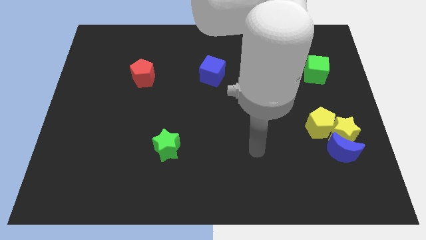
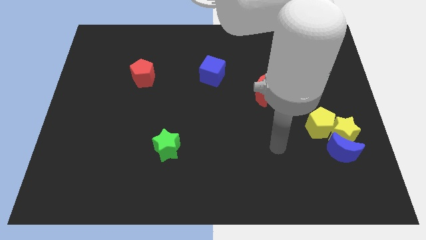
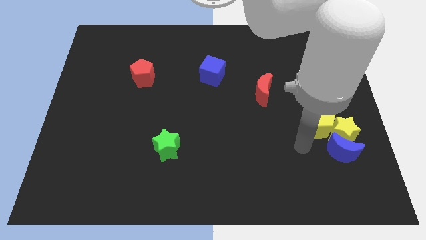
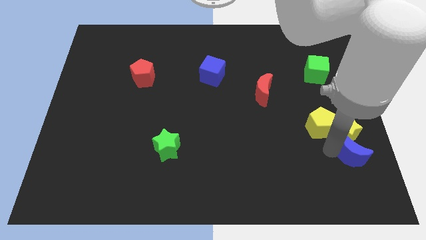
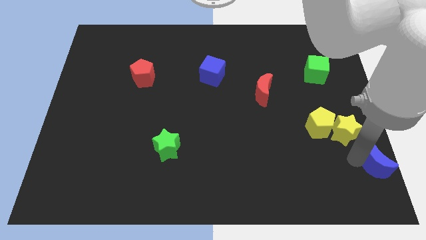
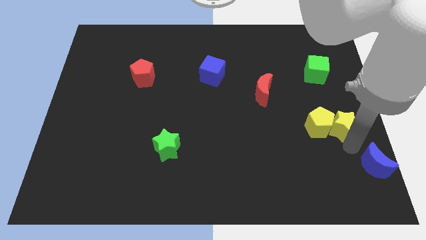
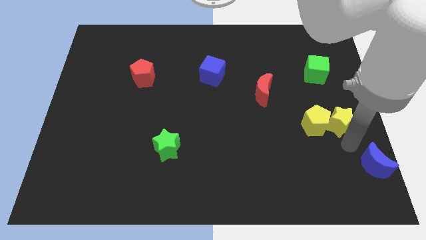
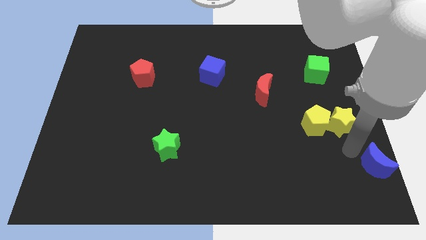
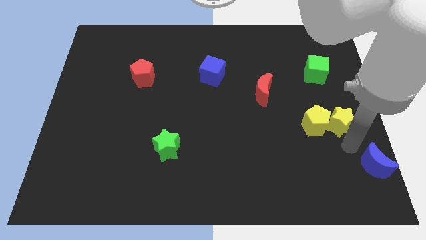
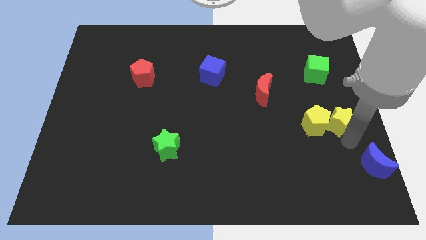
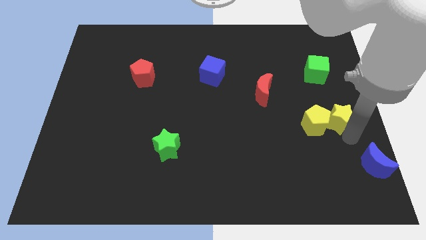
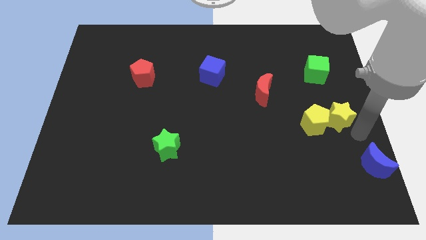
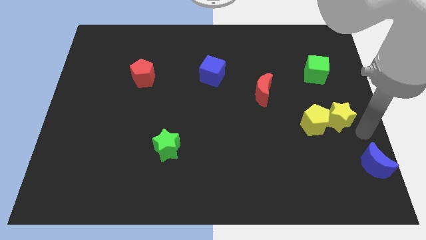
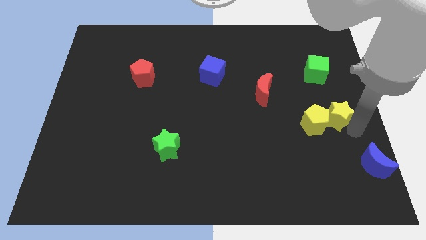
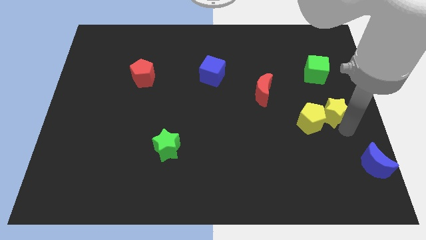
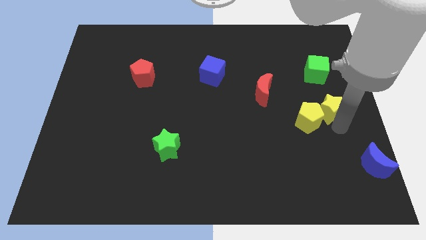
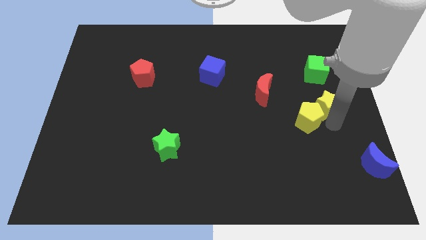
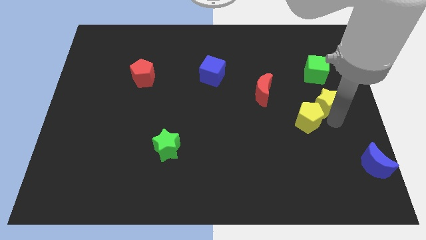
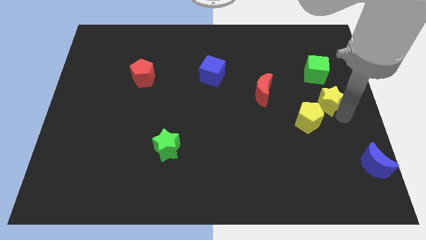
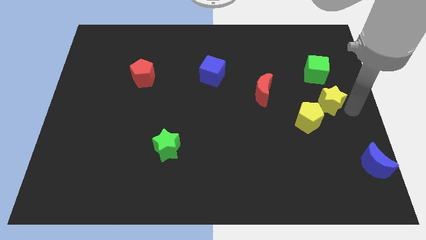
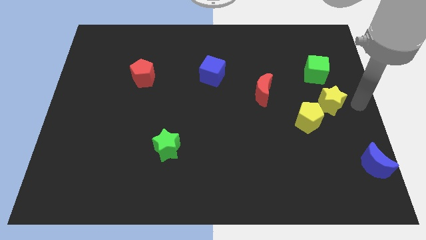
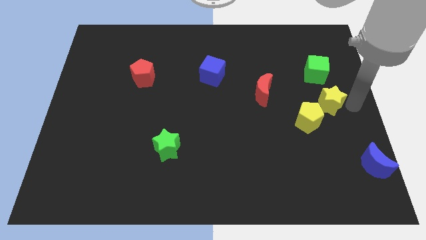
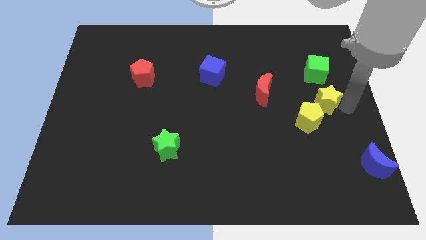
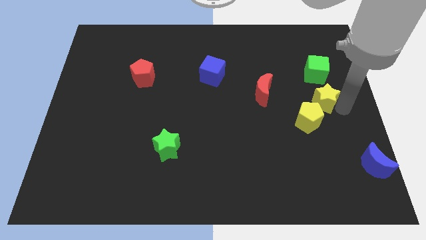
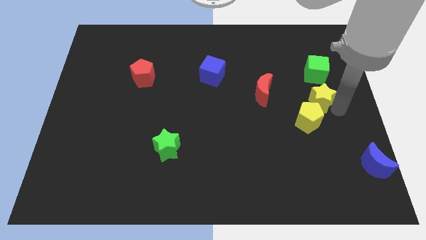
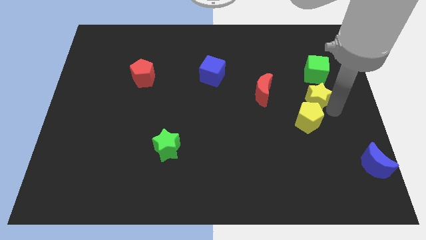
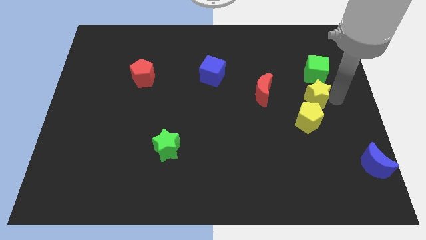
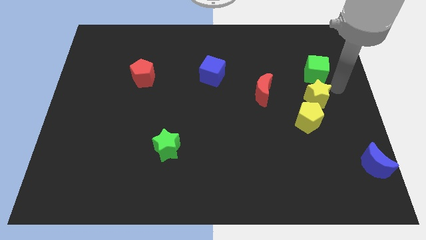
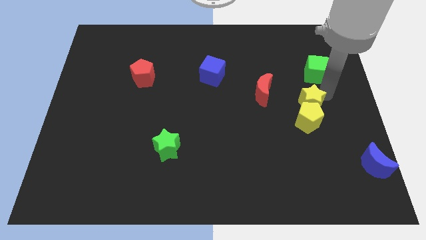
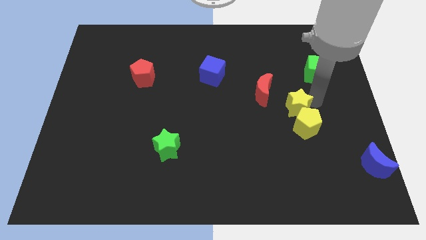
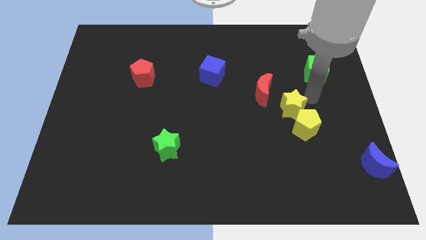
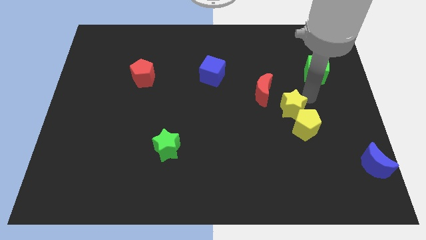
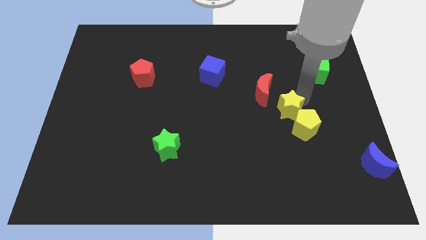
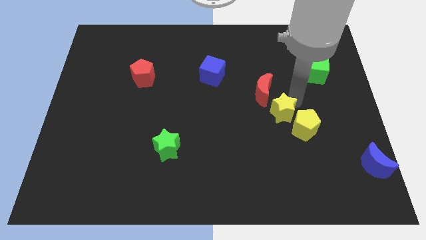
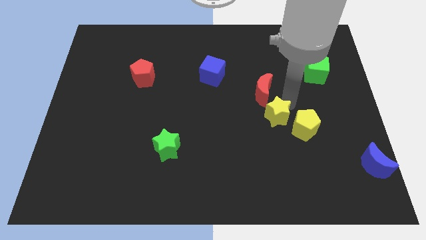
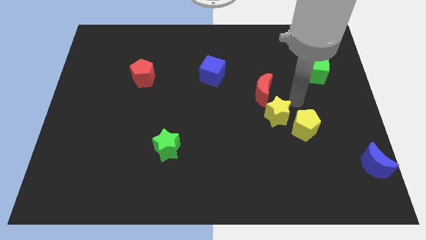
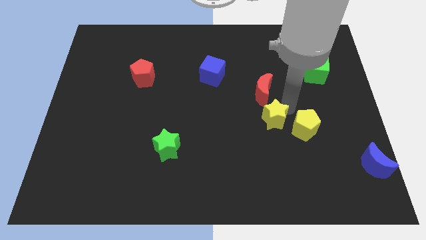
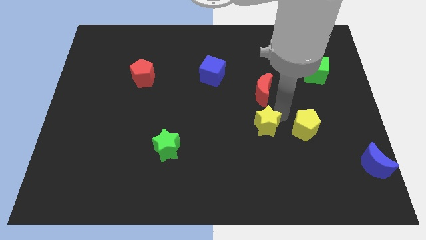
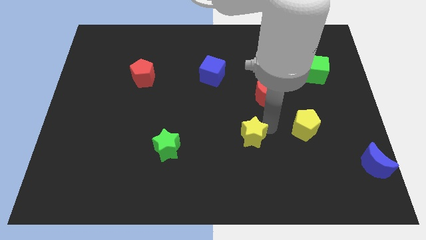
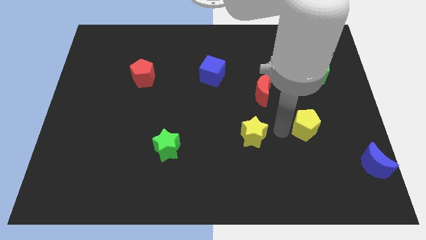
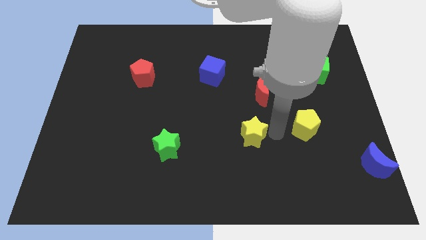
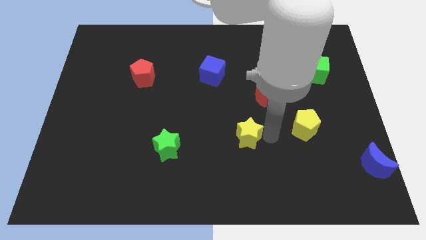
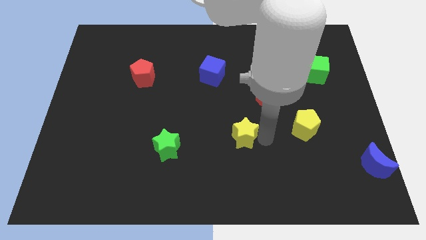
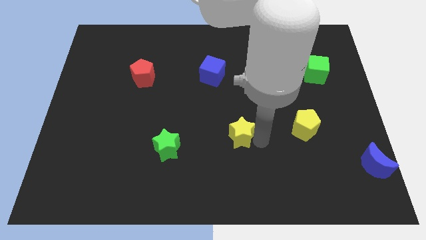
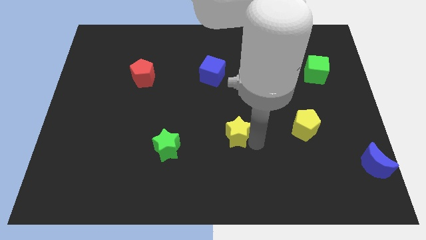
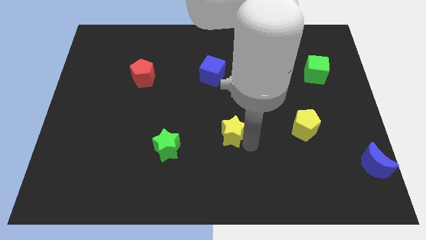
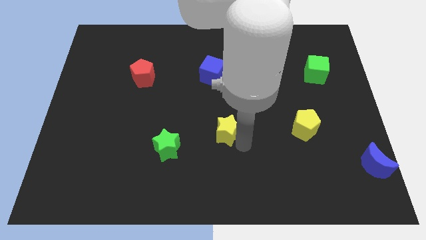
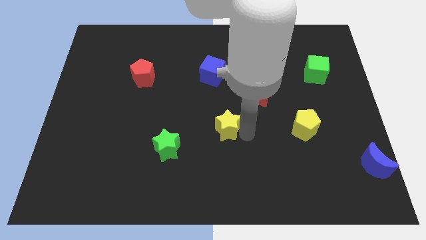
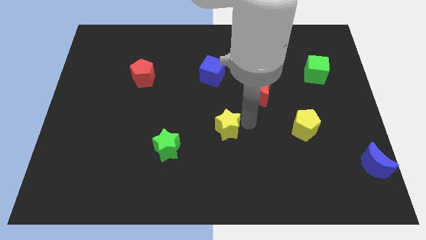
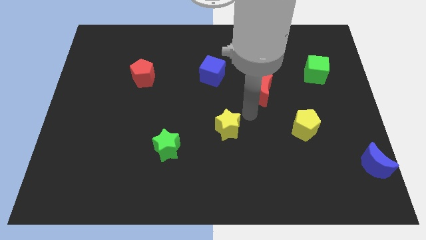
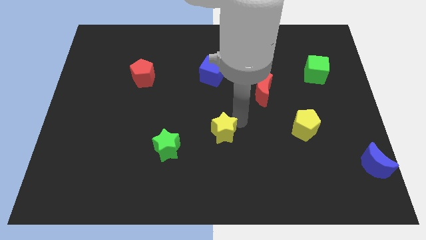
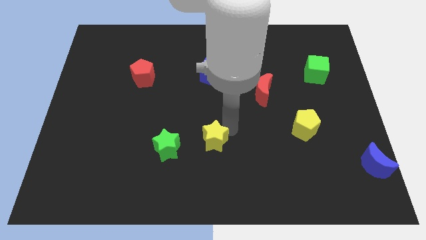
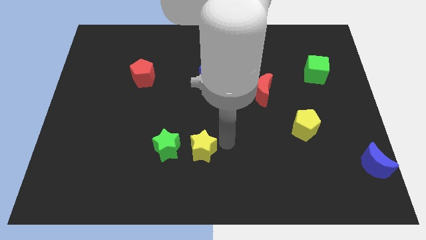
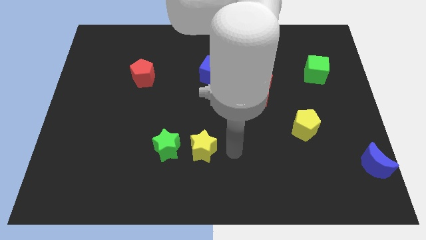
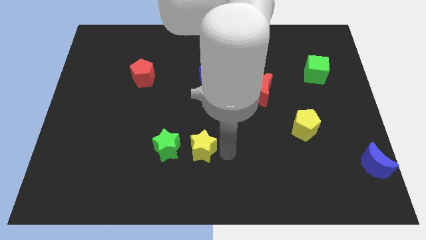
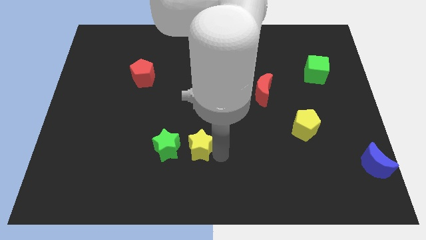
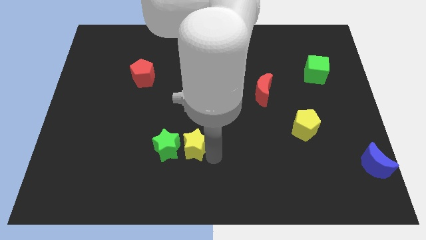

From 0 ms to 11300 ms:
put the yellow star towards the green star

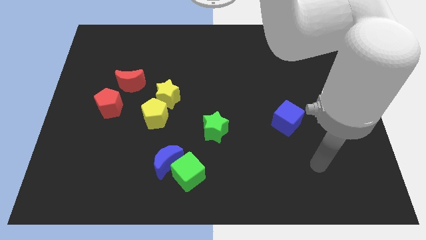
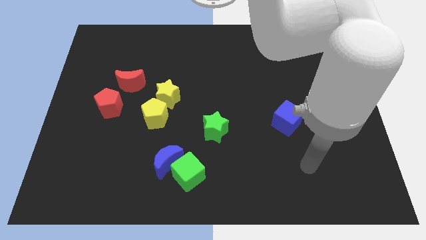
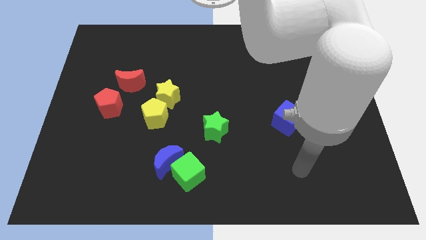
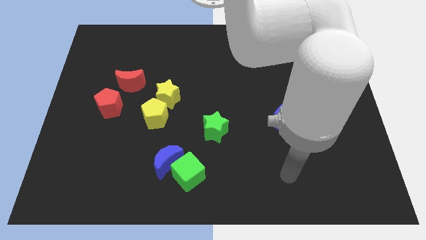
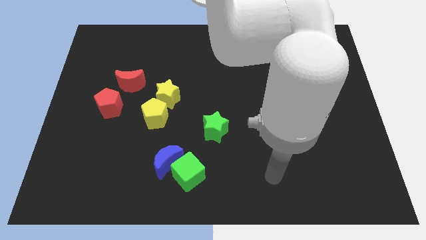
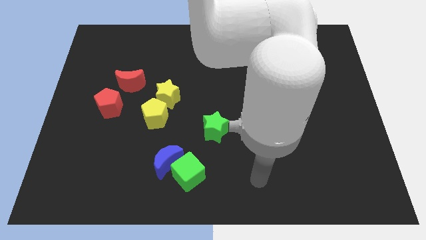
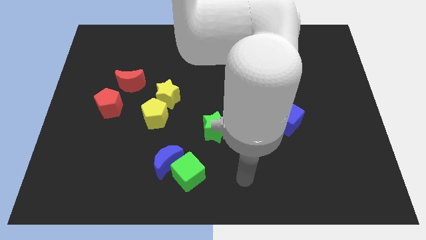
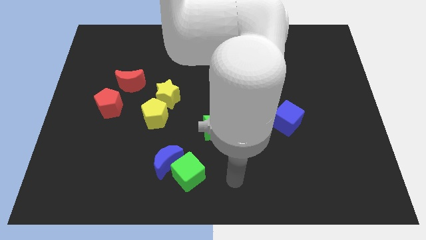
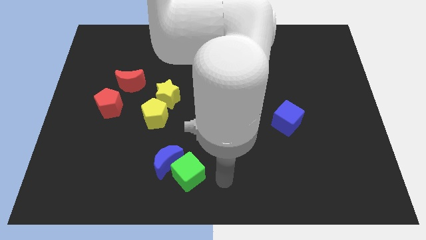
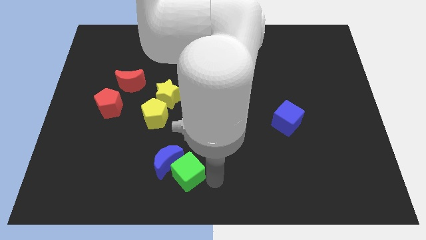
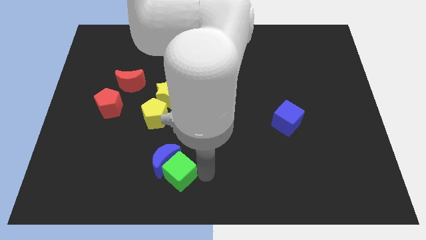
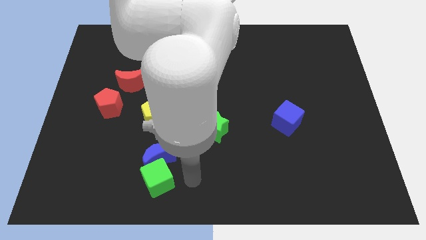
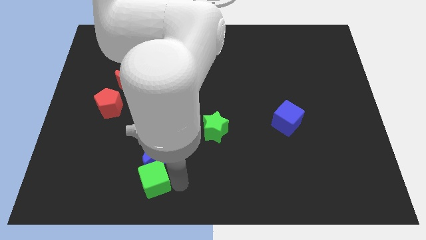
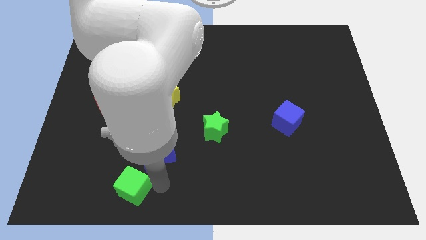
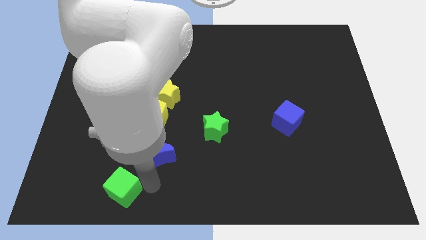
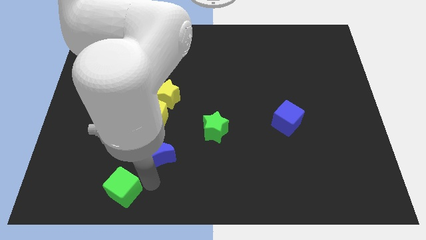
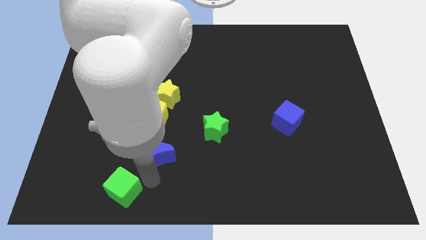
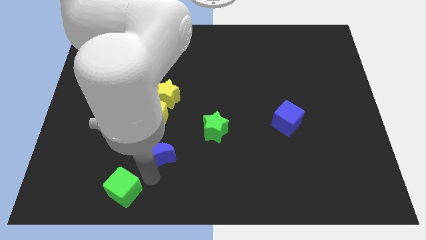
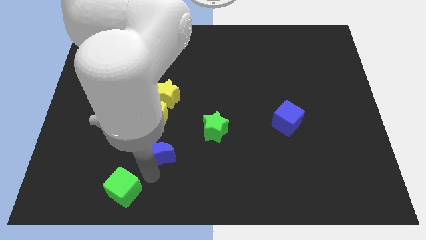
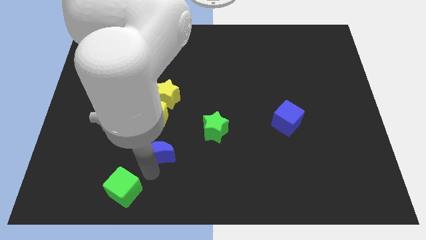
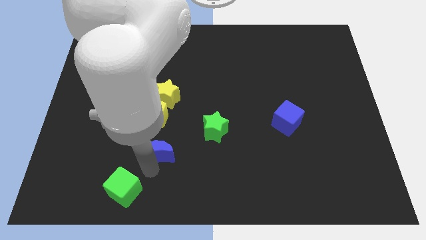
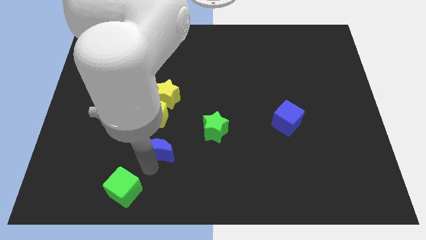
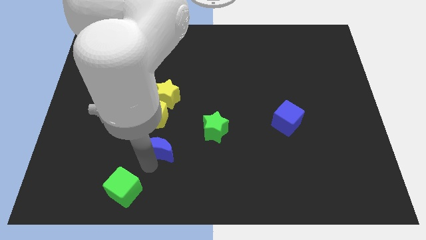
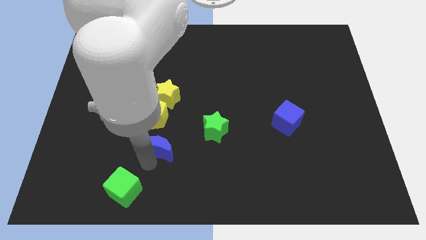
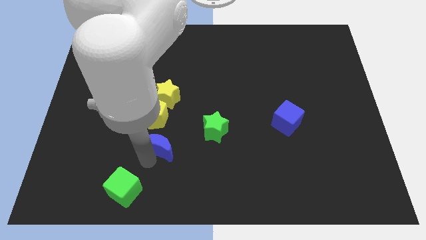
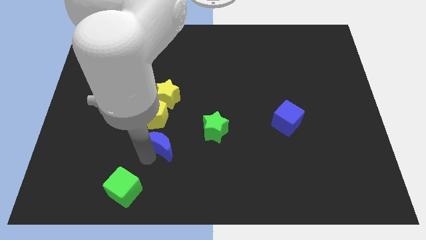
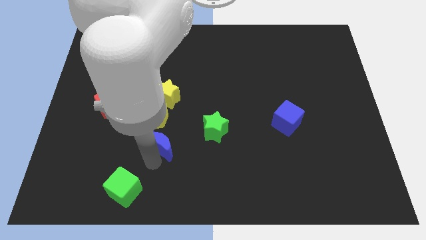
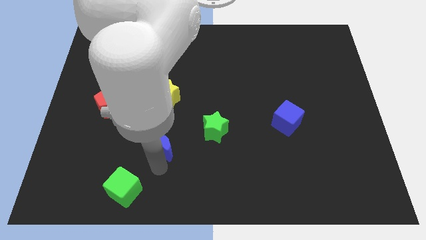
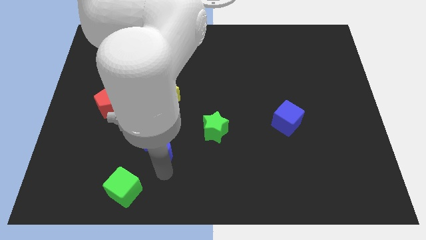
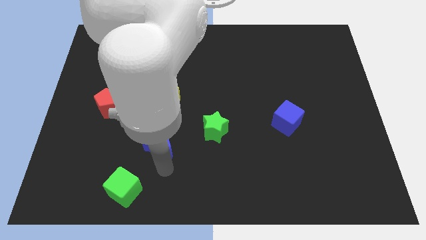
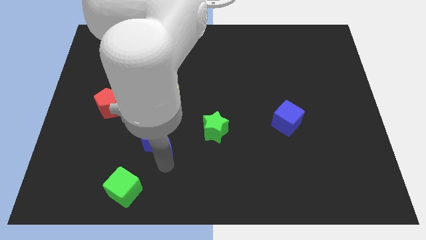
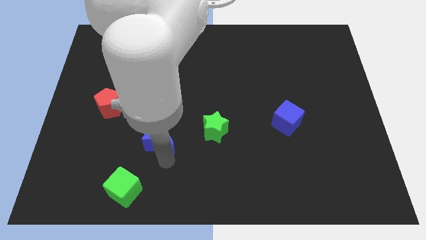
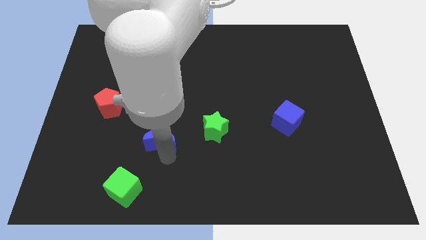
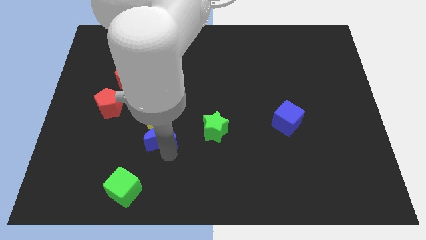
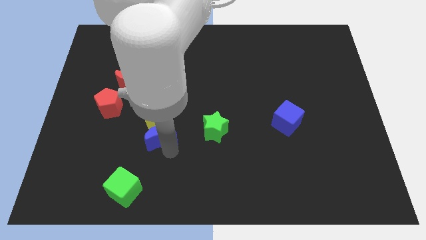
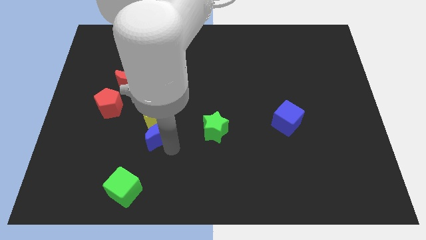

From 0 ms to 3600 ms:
put the blue moon close to the yellow pentagon
